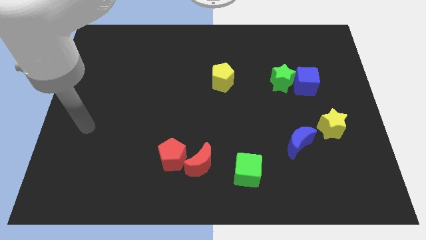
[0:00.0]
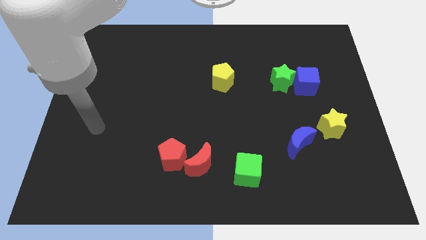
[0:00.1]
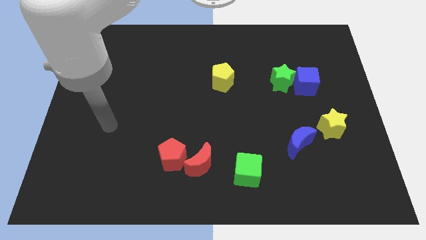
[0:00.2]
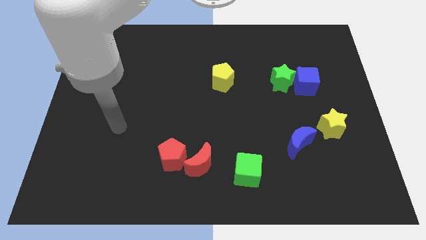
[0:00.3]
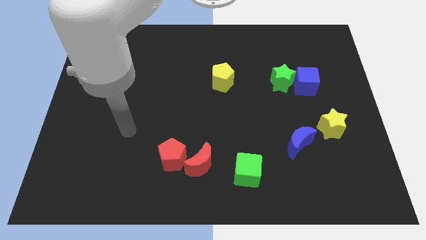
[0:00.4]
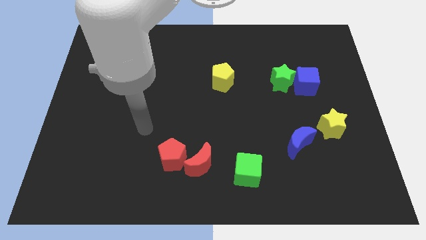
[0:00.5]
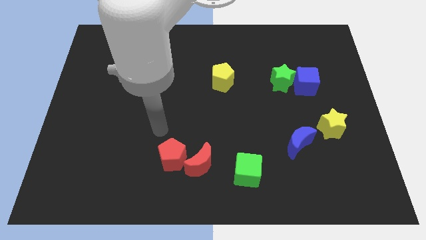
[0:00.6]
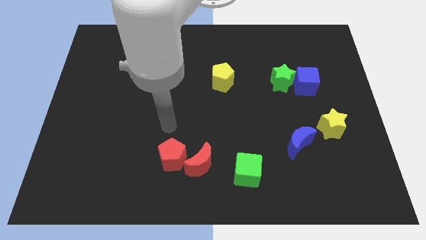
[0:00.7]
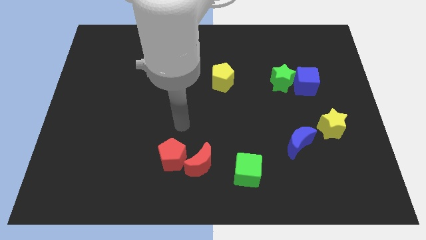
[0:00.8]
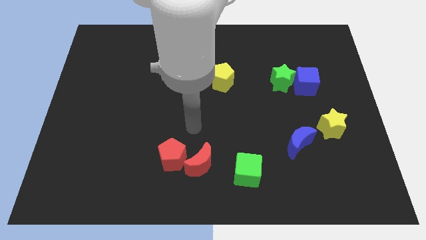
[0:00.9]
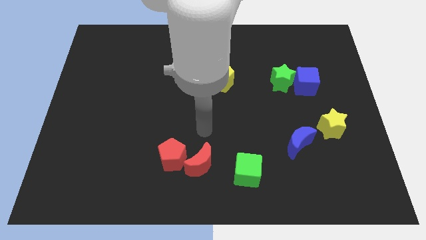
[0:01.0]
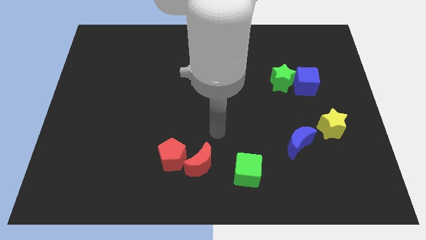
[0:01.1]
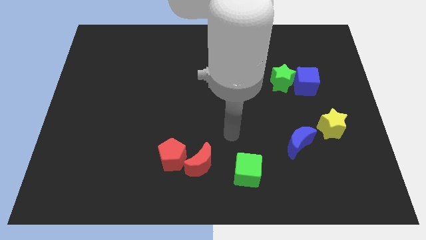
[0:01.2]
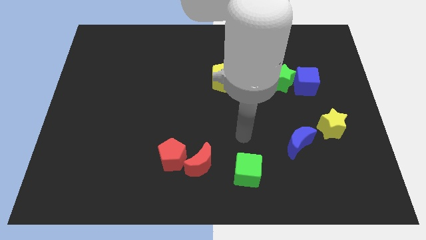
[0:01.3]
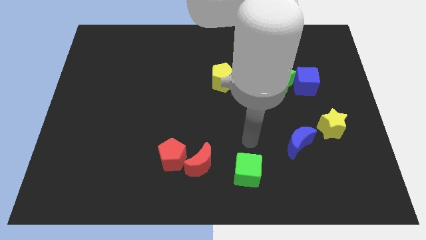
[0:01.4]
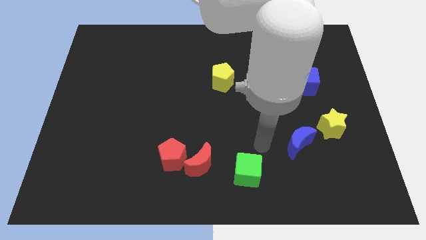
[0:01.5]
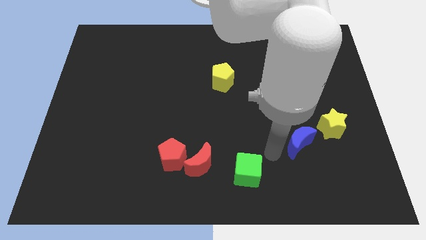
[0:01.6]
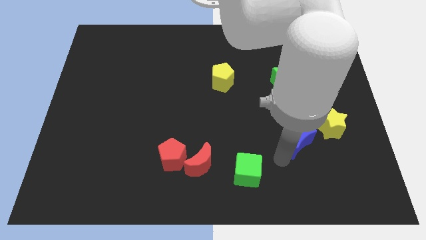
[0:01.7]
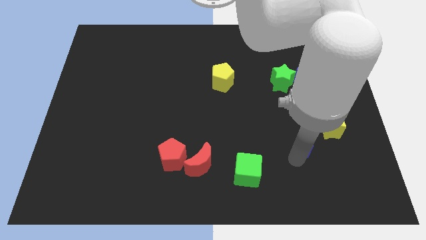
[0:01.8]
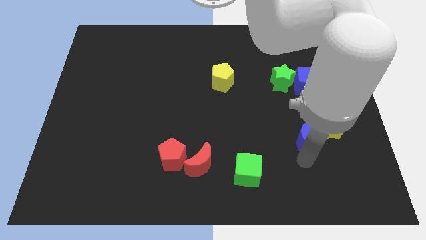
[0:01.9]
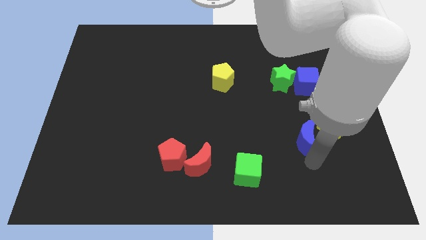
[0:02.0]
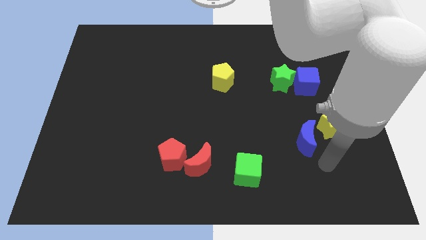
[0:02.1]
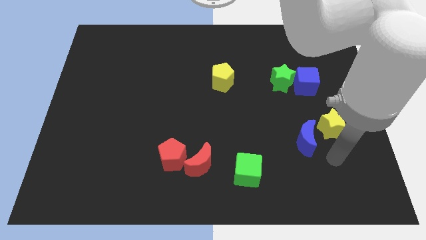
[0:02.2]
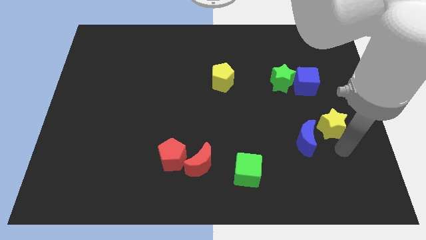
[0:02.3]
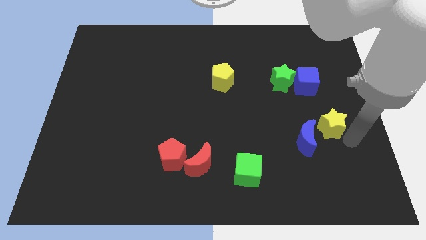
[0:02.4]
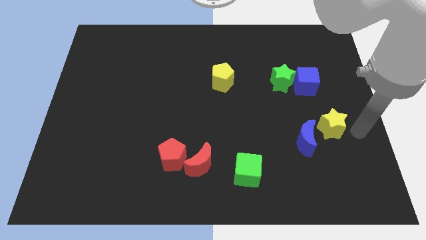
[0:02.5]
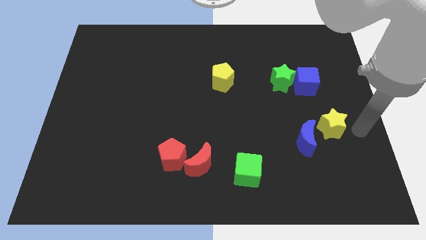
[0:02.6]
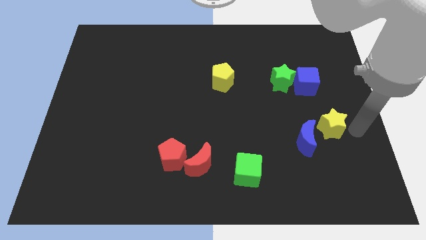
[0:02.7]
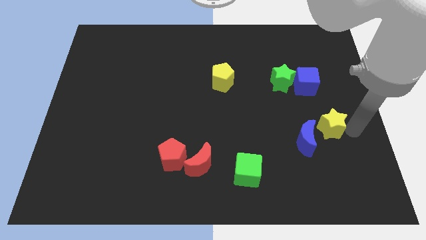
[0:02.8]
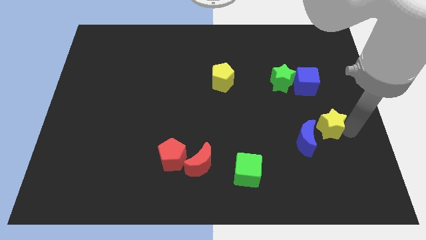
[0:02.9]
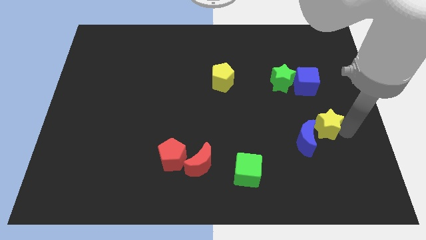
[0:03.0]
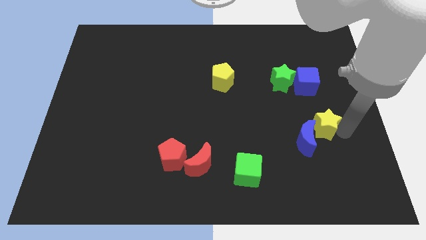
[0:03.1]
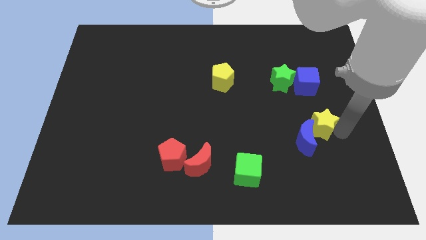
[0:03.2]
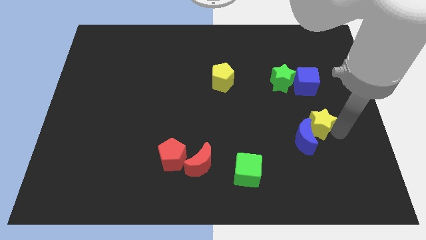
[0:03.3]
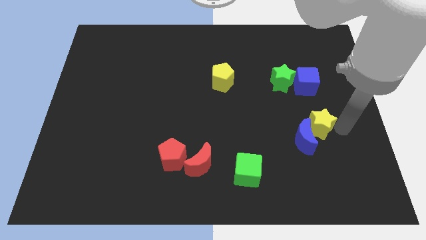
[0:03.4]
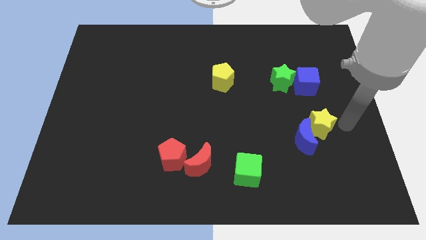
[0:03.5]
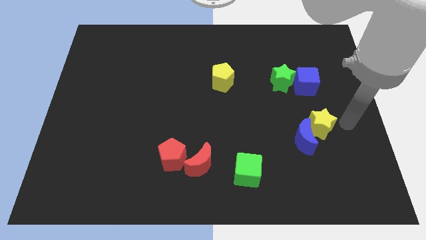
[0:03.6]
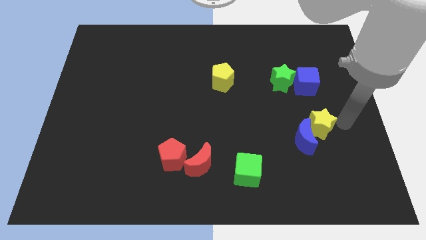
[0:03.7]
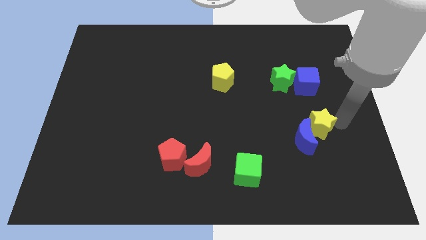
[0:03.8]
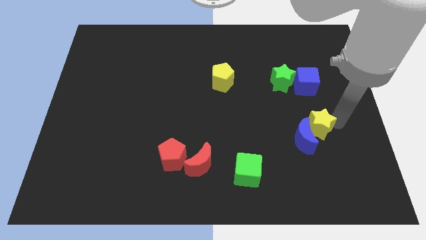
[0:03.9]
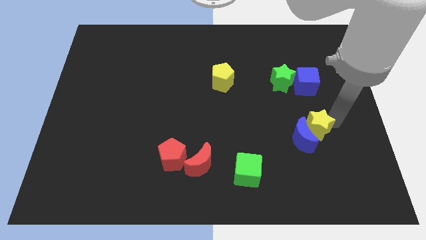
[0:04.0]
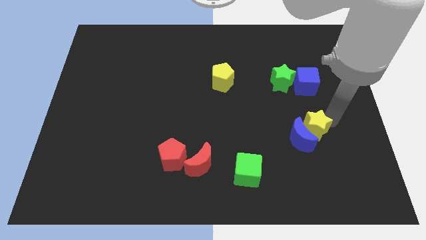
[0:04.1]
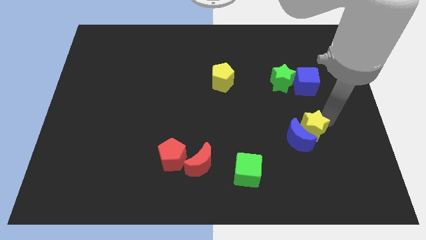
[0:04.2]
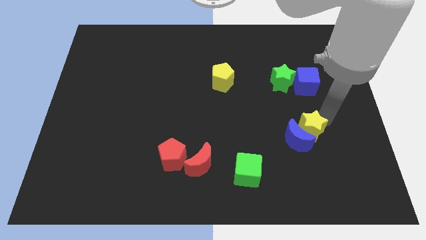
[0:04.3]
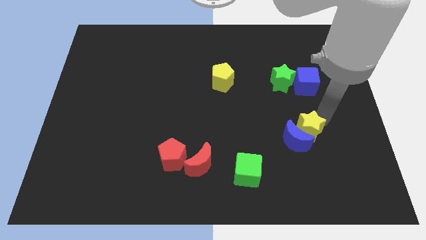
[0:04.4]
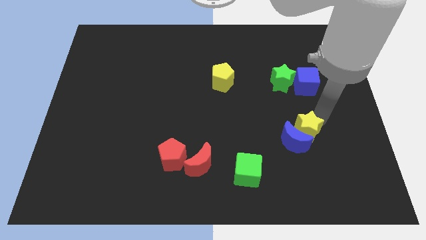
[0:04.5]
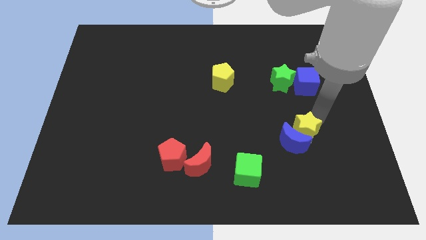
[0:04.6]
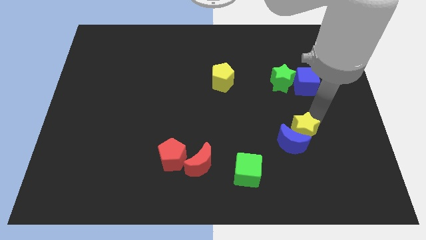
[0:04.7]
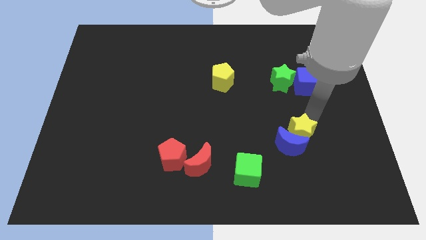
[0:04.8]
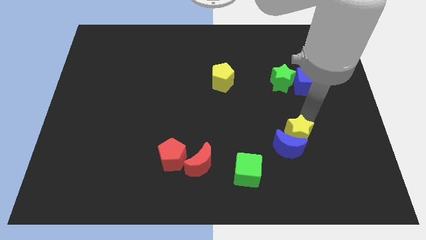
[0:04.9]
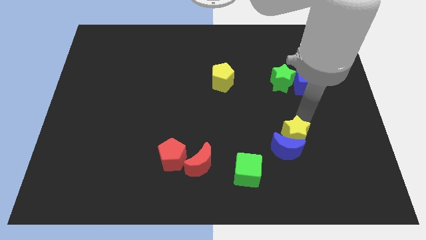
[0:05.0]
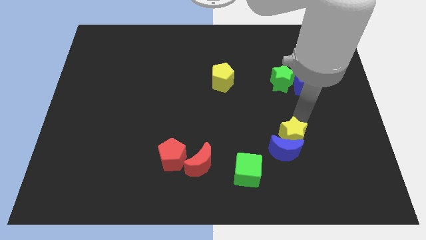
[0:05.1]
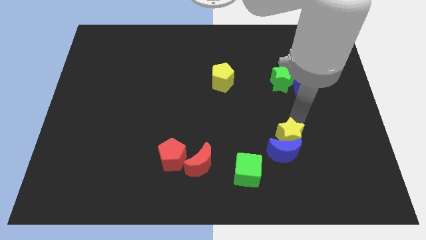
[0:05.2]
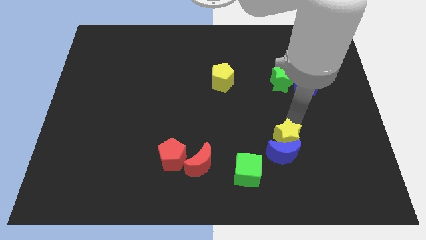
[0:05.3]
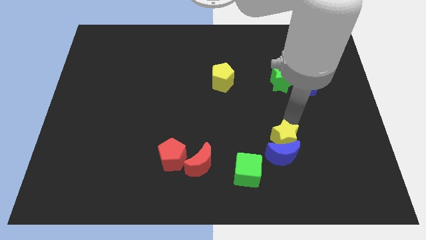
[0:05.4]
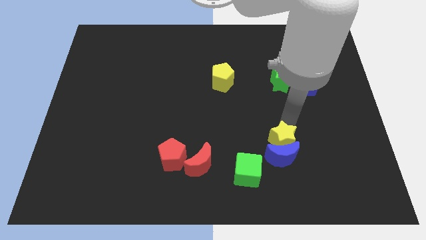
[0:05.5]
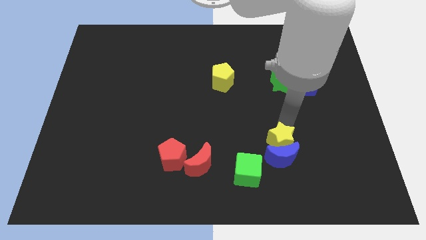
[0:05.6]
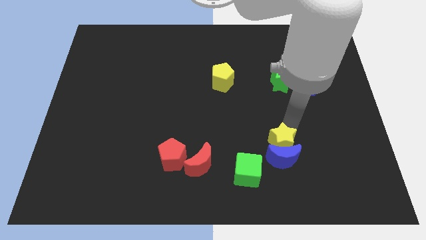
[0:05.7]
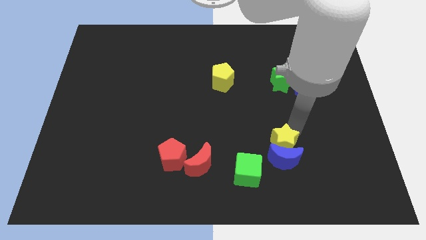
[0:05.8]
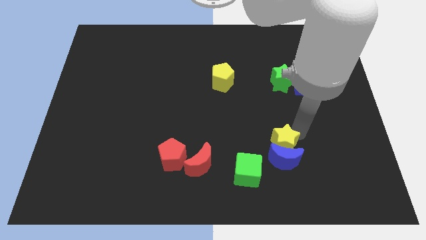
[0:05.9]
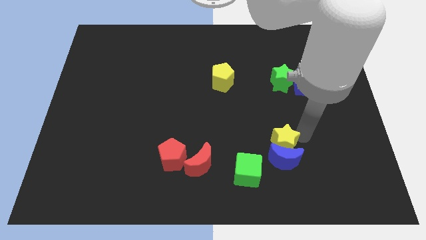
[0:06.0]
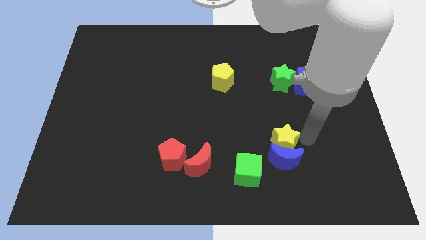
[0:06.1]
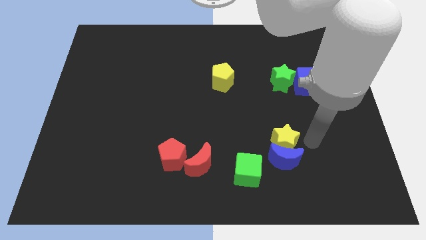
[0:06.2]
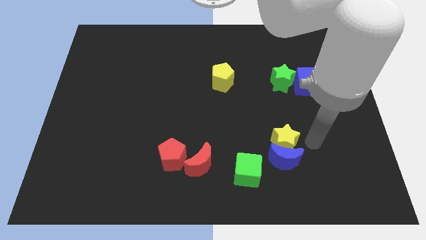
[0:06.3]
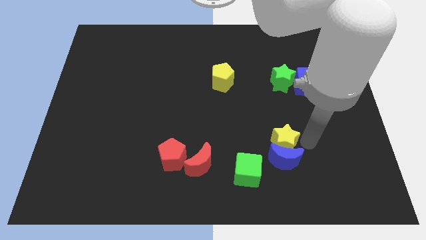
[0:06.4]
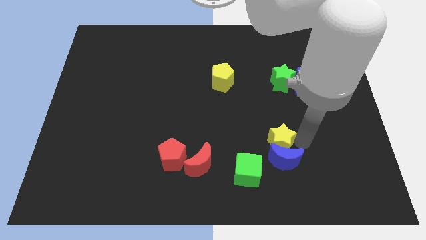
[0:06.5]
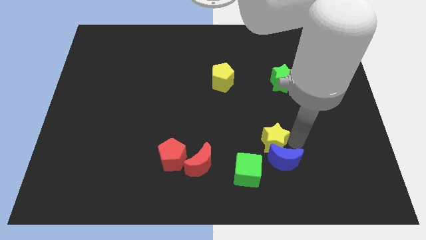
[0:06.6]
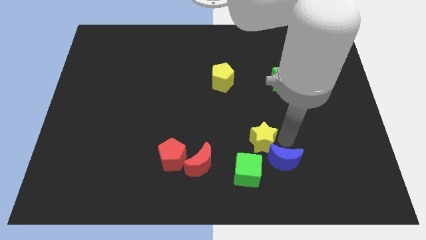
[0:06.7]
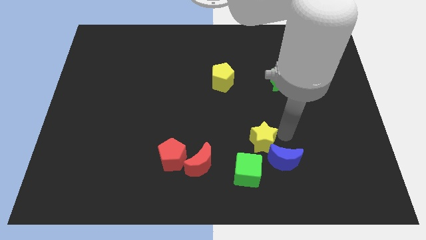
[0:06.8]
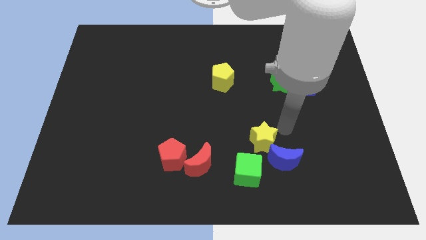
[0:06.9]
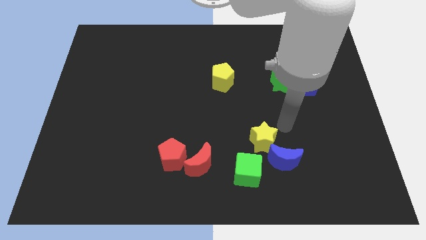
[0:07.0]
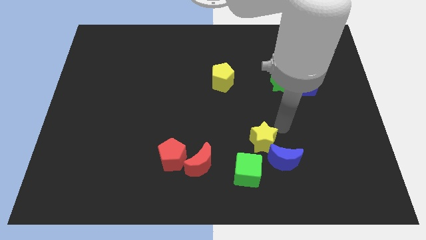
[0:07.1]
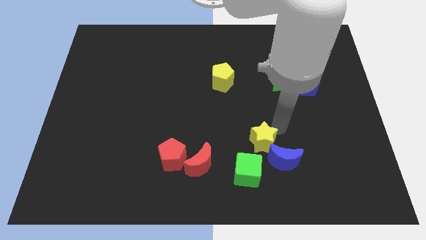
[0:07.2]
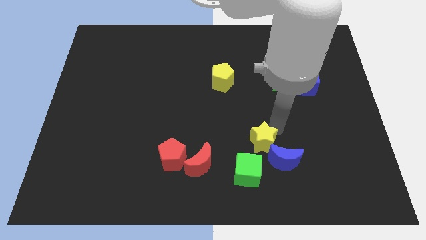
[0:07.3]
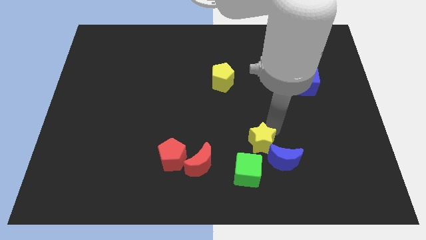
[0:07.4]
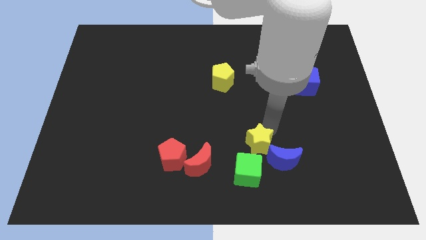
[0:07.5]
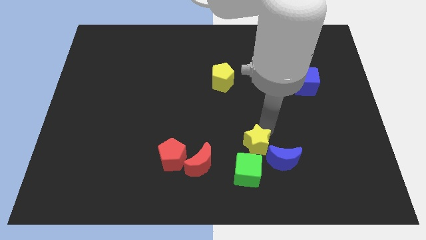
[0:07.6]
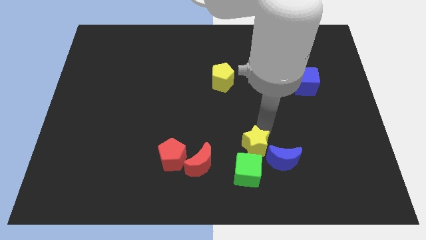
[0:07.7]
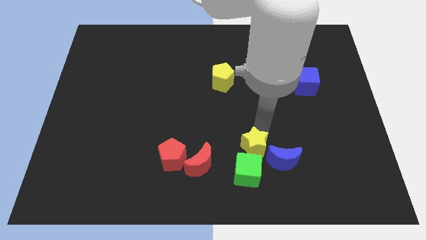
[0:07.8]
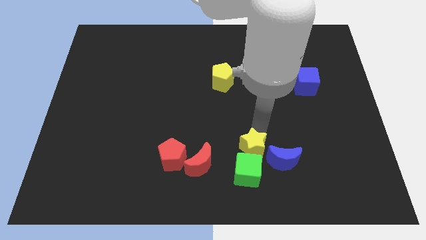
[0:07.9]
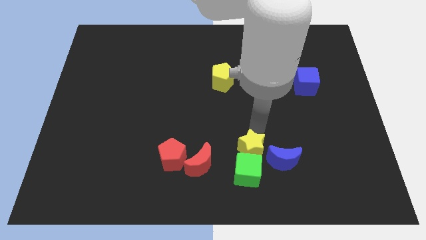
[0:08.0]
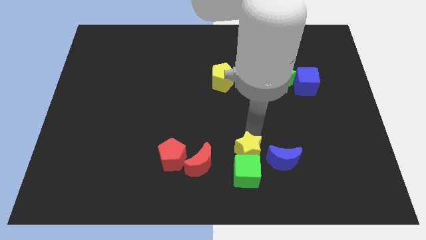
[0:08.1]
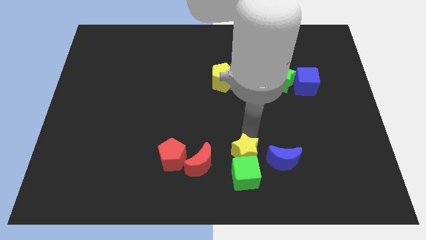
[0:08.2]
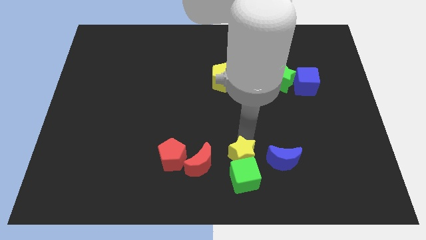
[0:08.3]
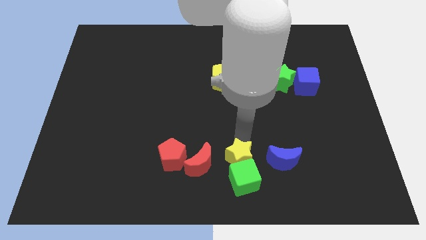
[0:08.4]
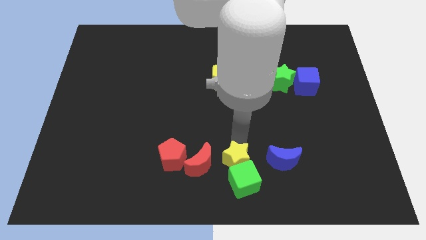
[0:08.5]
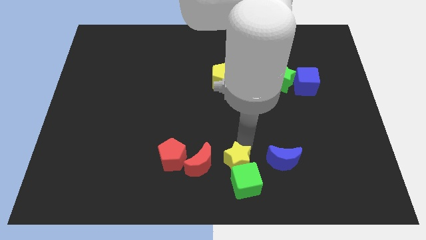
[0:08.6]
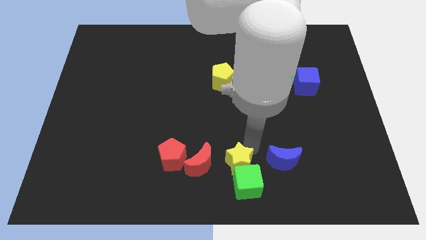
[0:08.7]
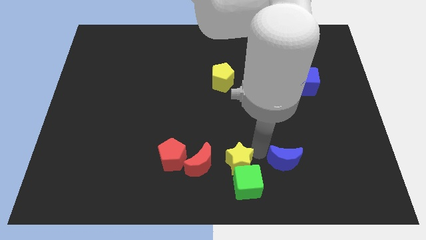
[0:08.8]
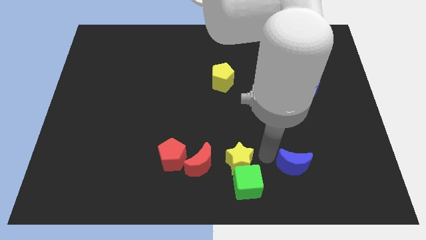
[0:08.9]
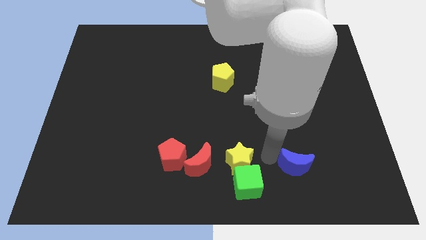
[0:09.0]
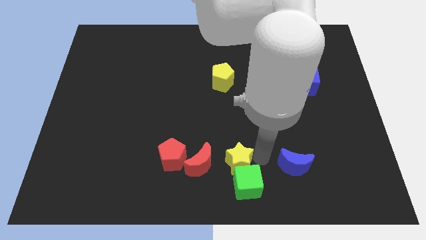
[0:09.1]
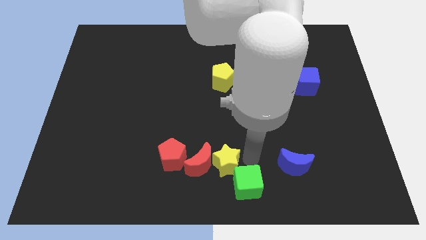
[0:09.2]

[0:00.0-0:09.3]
slide the yellow star close to the red moon
